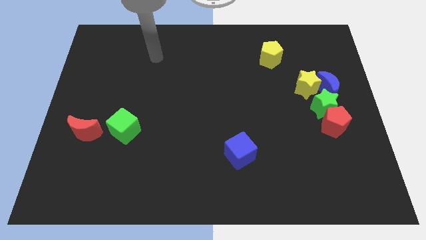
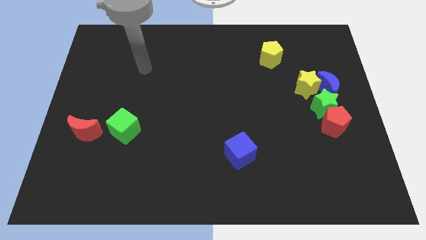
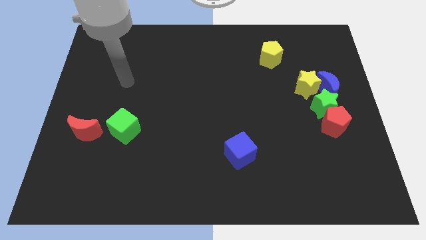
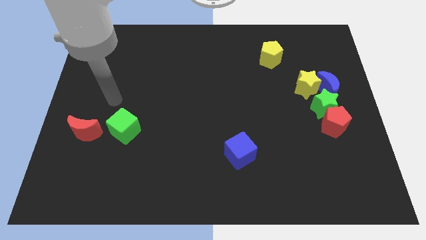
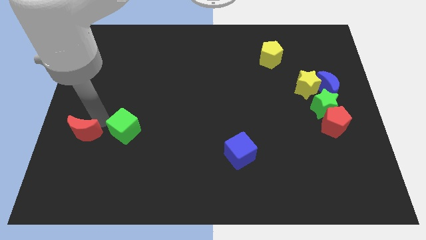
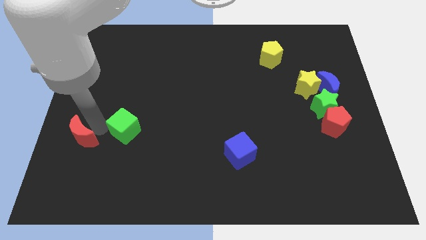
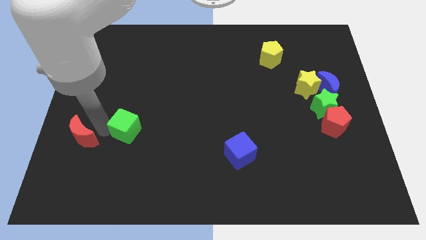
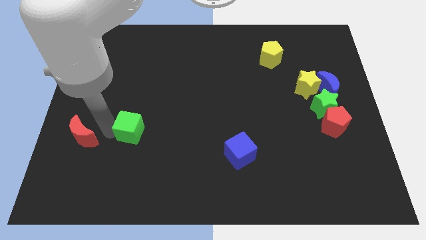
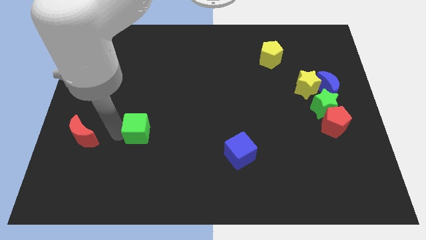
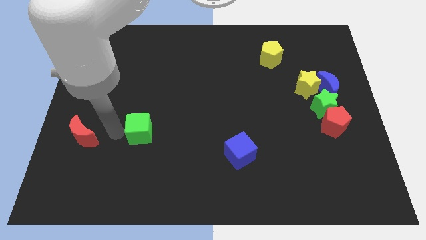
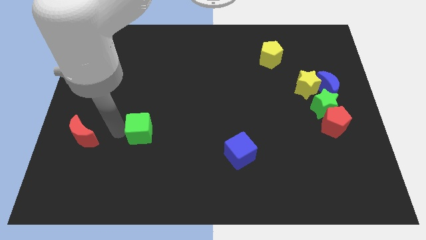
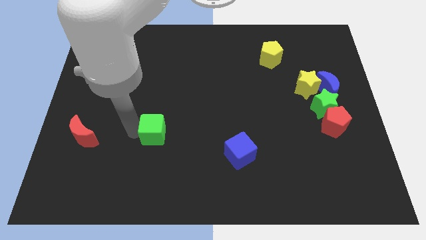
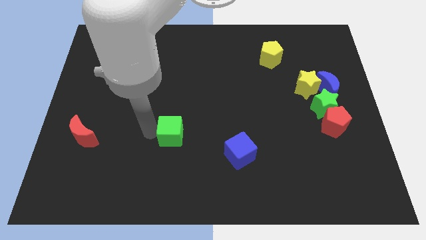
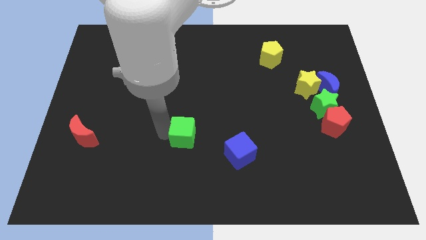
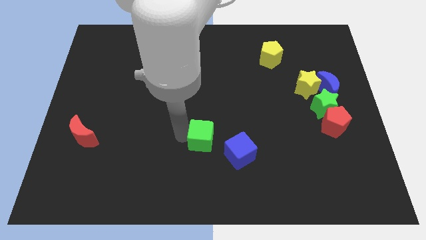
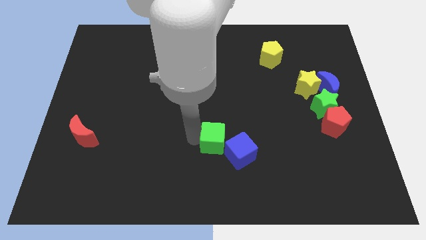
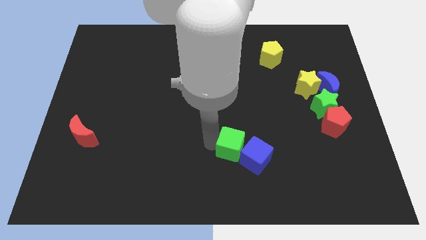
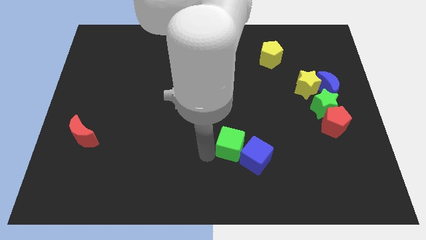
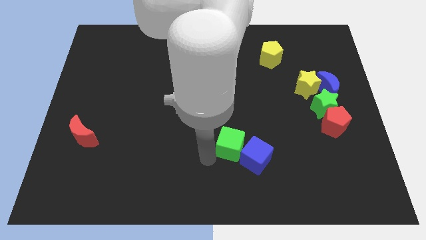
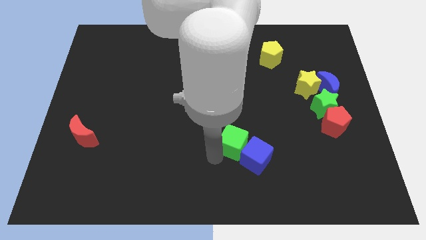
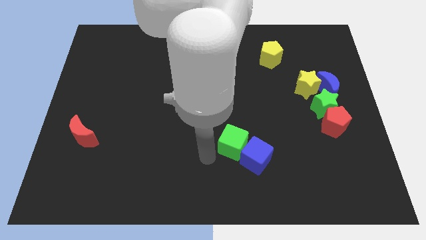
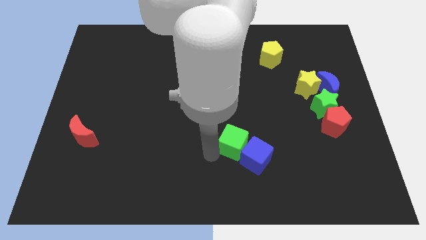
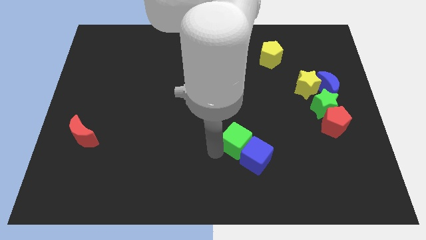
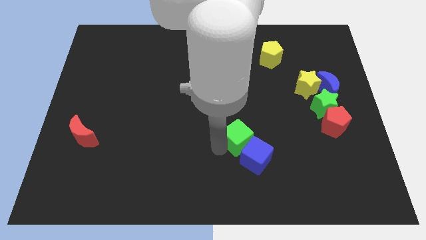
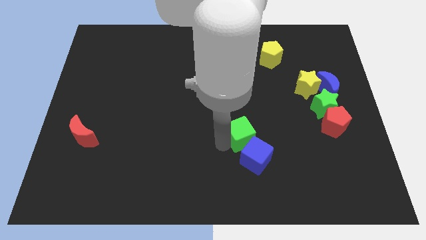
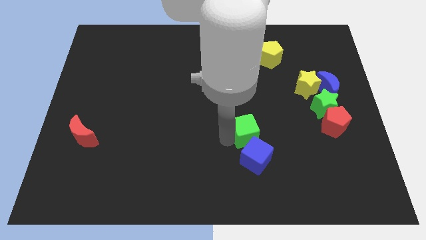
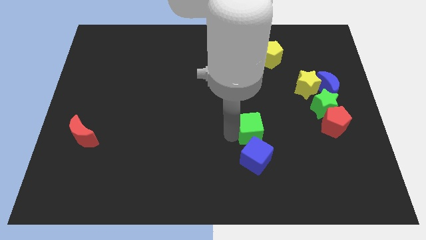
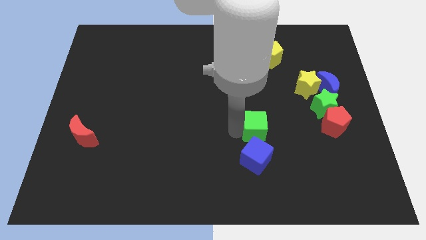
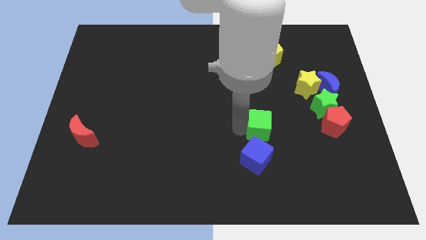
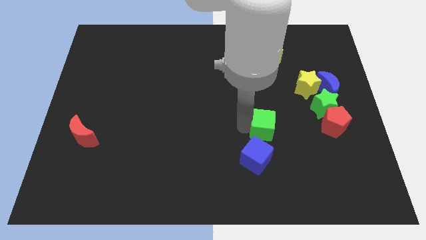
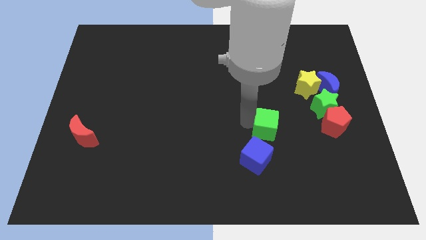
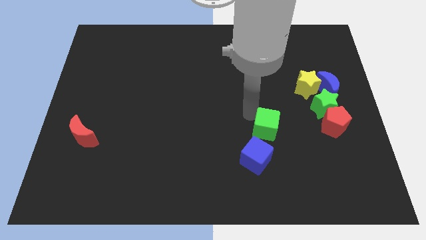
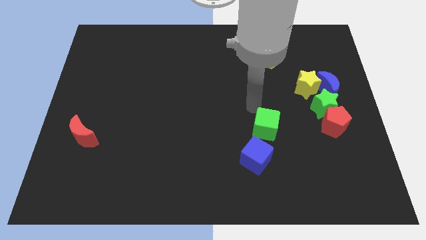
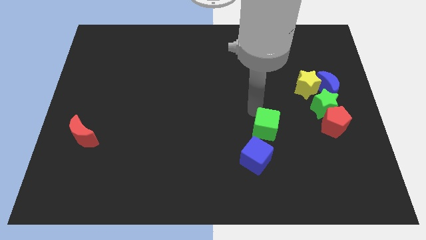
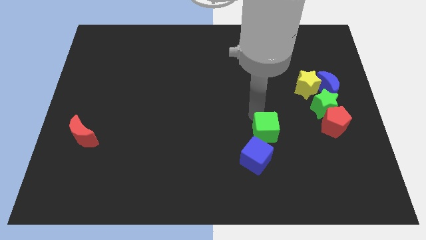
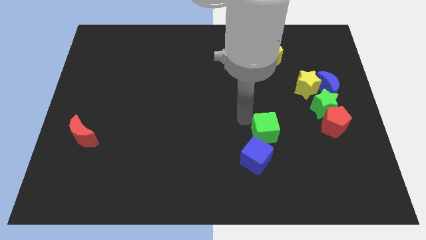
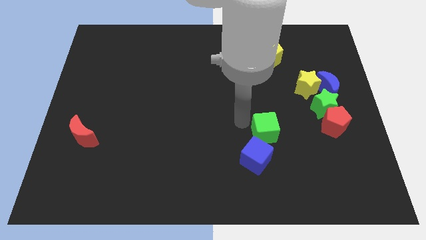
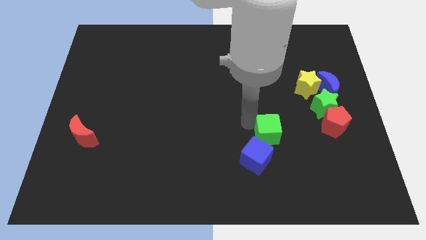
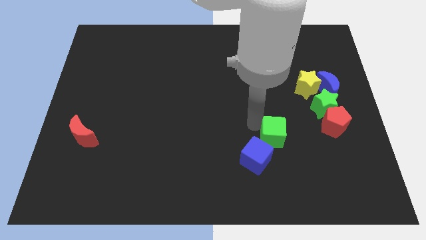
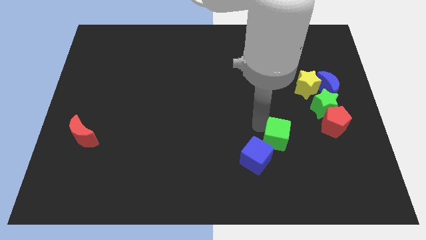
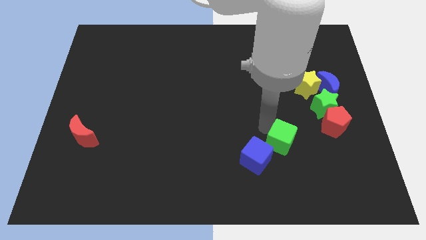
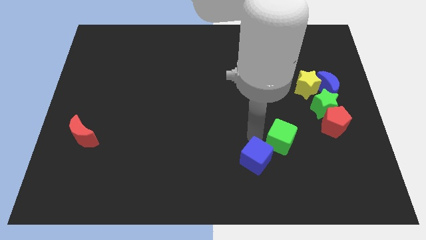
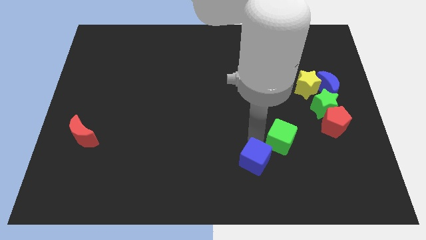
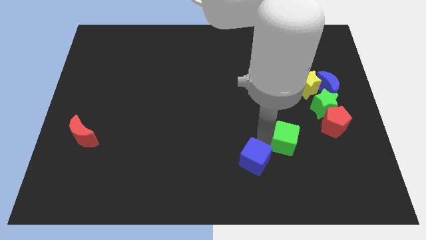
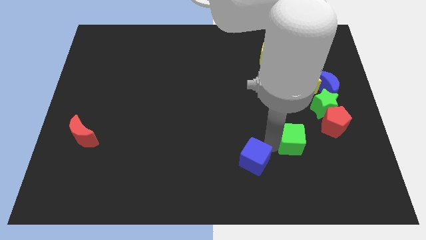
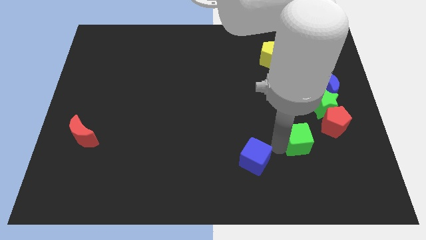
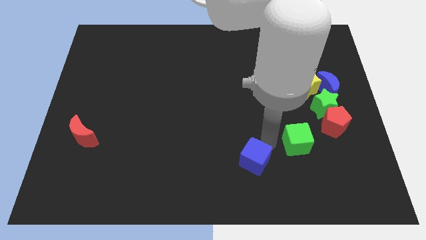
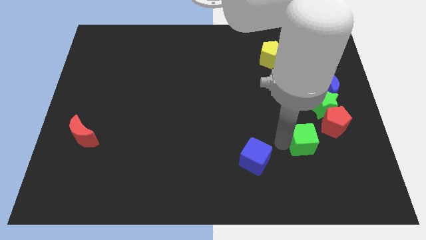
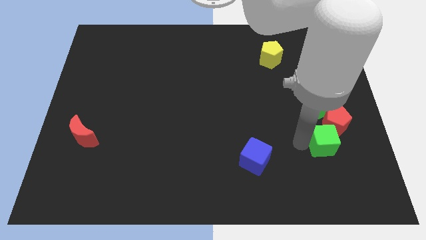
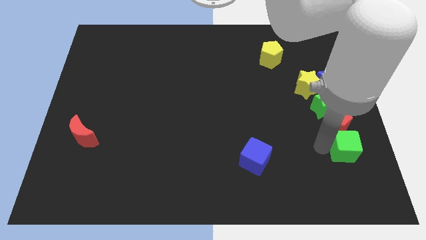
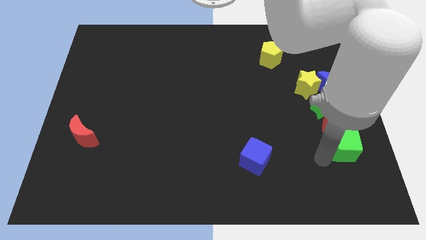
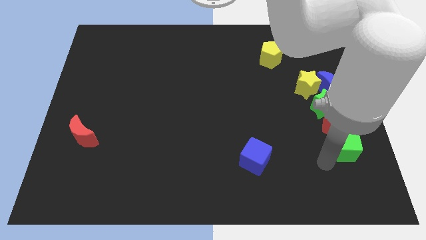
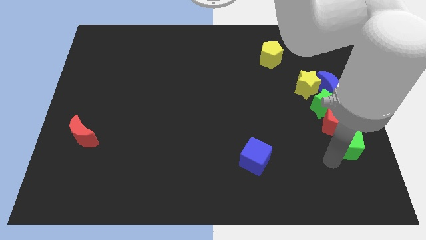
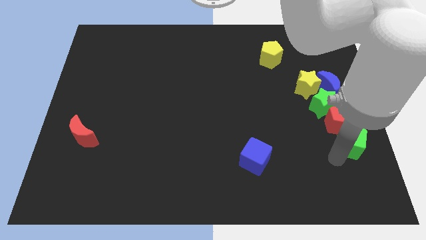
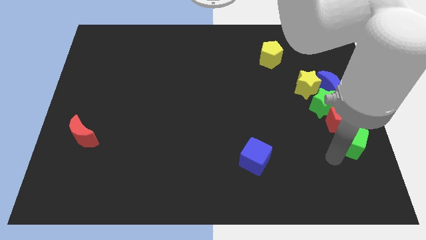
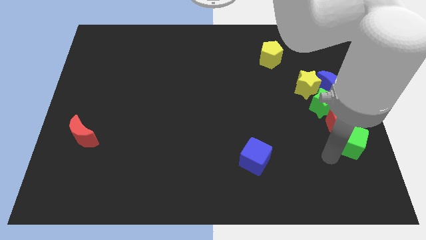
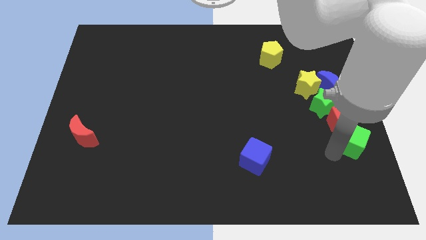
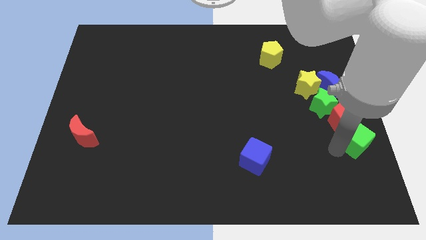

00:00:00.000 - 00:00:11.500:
slide the green cube to the right side of the board
